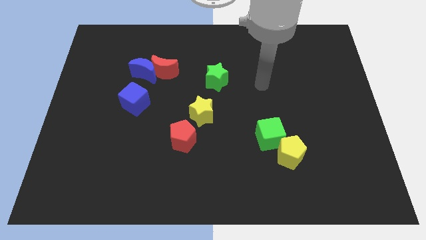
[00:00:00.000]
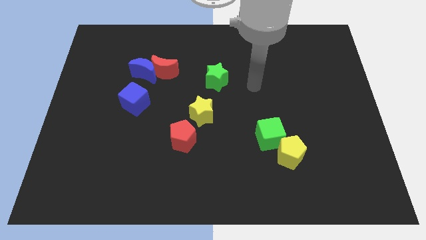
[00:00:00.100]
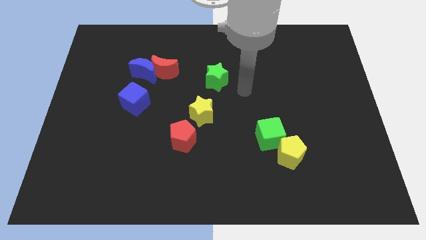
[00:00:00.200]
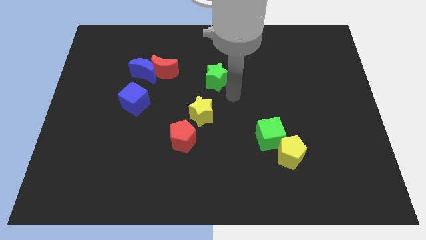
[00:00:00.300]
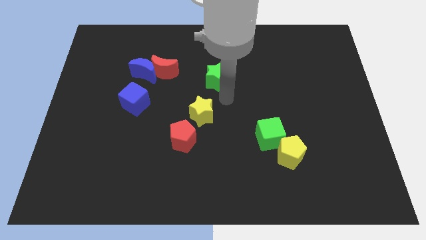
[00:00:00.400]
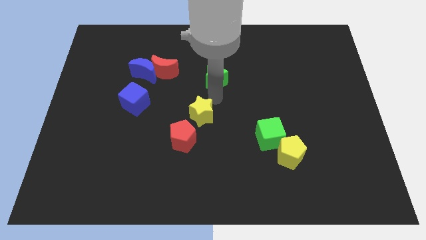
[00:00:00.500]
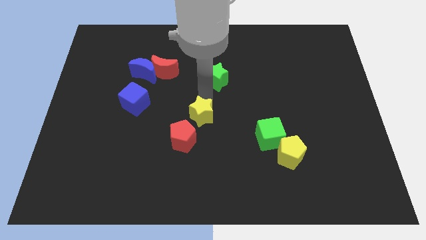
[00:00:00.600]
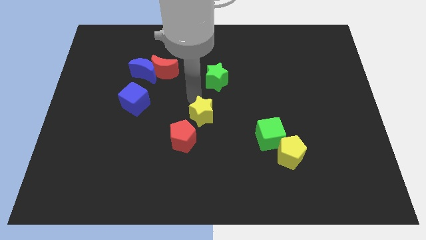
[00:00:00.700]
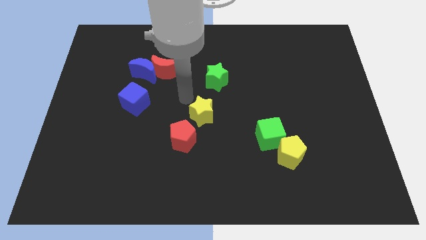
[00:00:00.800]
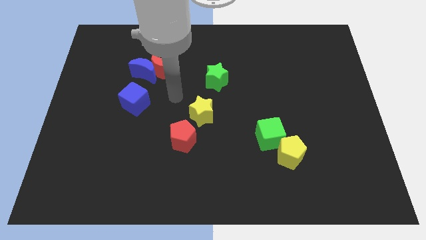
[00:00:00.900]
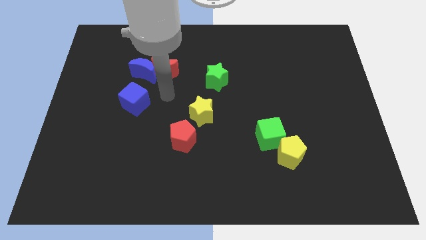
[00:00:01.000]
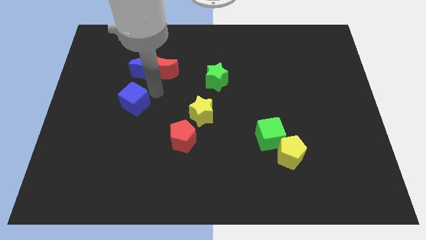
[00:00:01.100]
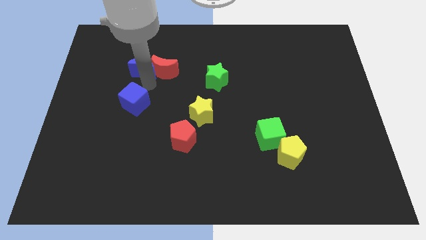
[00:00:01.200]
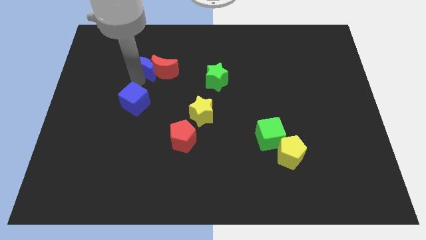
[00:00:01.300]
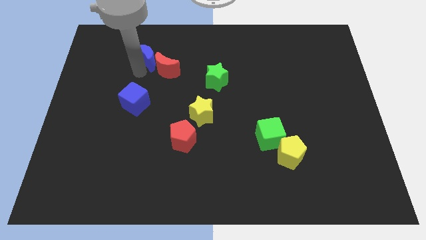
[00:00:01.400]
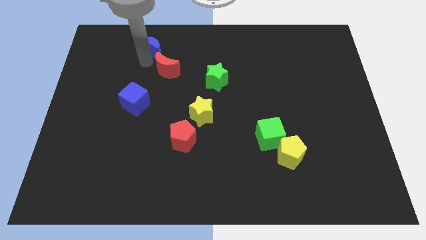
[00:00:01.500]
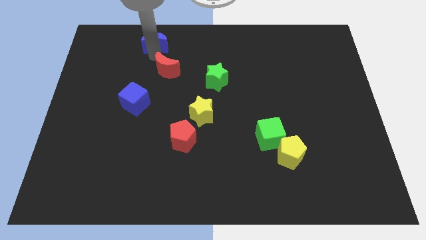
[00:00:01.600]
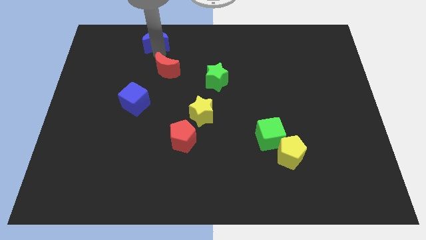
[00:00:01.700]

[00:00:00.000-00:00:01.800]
move the red moon away from the blue moon

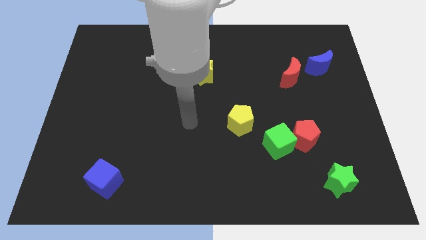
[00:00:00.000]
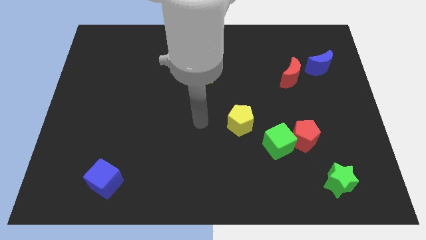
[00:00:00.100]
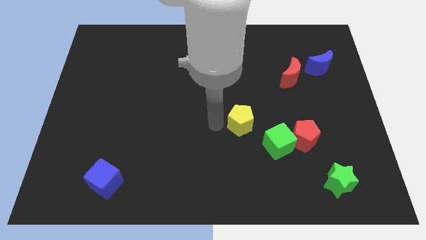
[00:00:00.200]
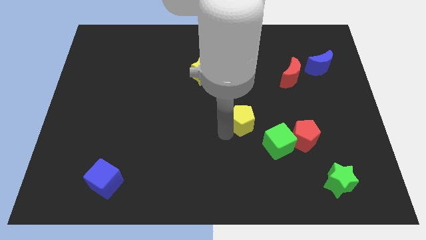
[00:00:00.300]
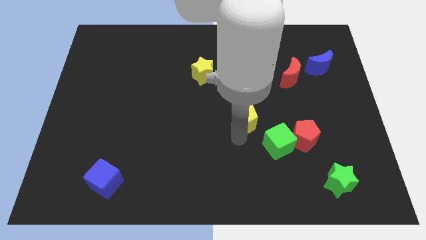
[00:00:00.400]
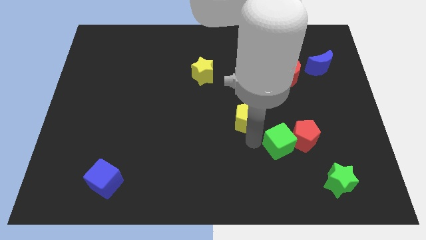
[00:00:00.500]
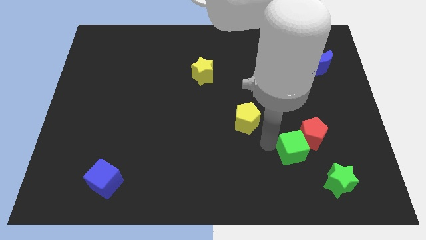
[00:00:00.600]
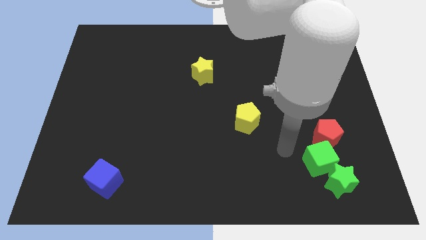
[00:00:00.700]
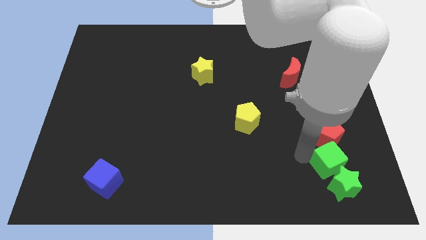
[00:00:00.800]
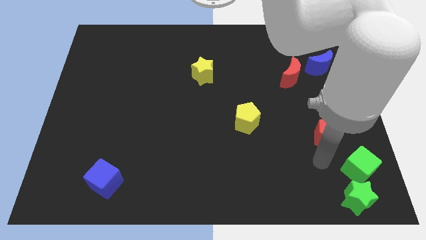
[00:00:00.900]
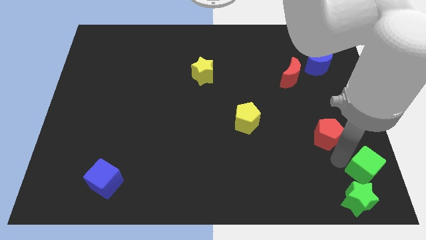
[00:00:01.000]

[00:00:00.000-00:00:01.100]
move the red pentagon away from the green cube

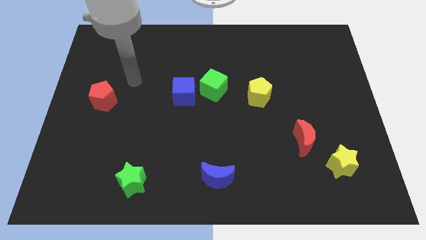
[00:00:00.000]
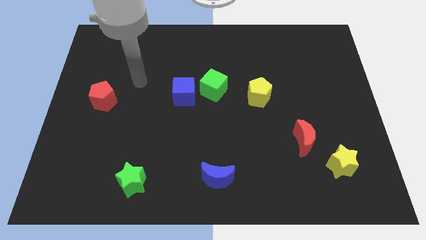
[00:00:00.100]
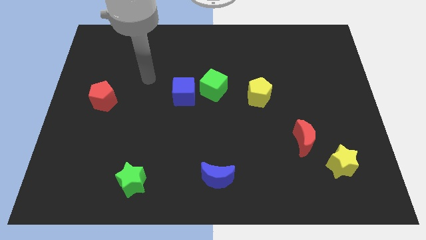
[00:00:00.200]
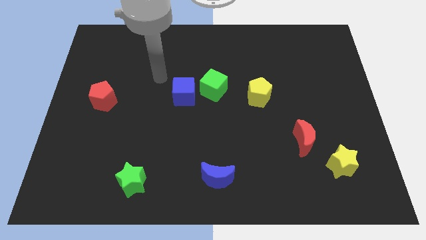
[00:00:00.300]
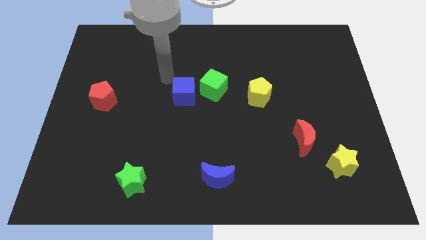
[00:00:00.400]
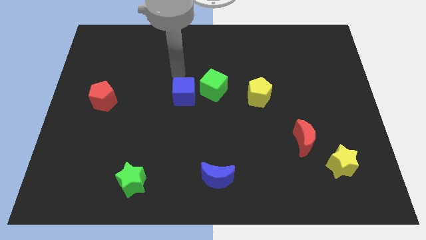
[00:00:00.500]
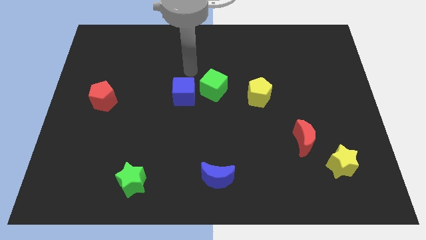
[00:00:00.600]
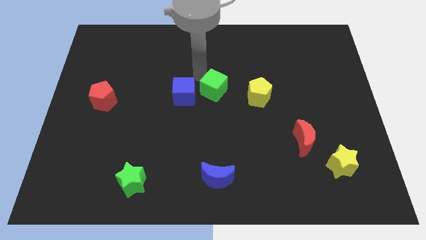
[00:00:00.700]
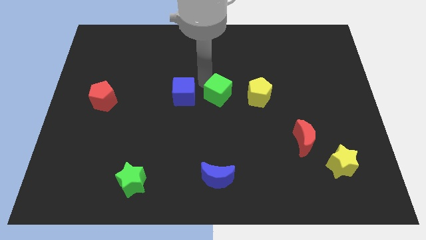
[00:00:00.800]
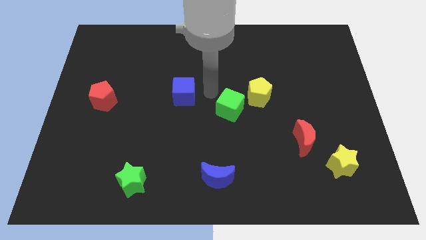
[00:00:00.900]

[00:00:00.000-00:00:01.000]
separate the blue cube from the green cube

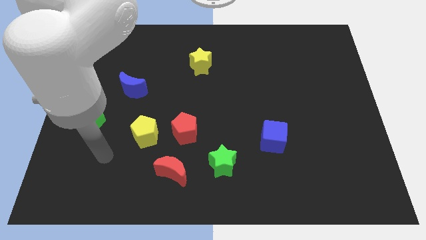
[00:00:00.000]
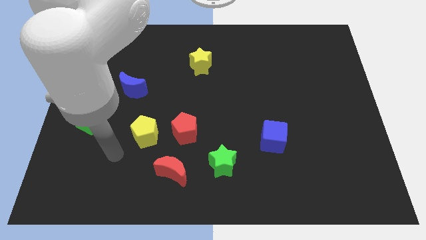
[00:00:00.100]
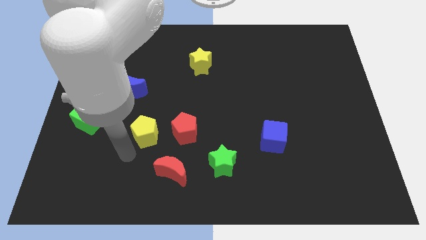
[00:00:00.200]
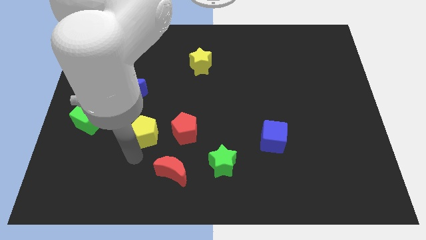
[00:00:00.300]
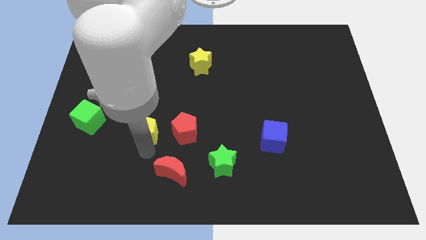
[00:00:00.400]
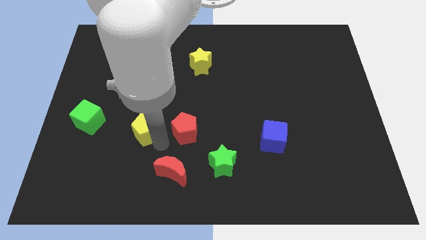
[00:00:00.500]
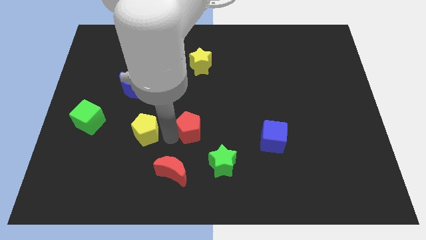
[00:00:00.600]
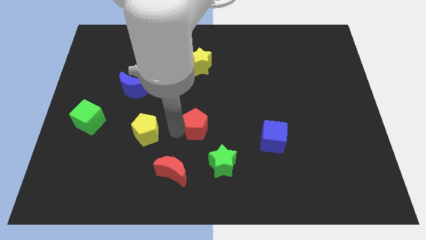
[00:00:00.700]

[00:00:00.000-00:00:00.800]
separate the yellow pentagon from the red pentagon

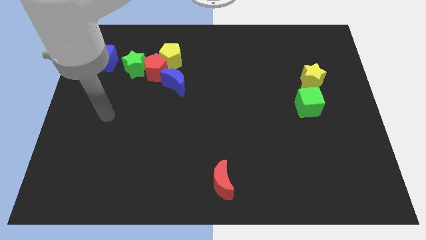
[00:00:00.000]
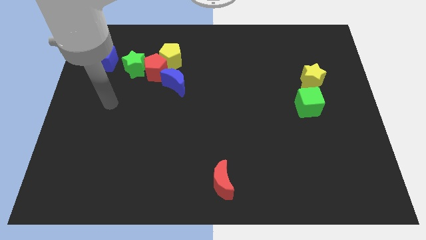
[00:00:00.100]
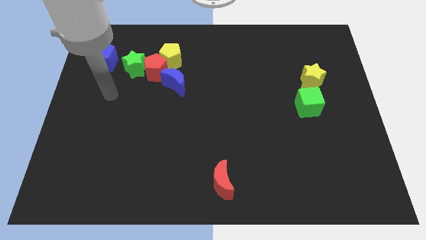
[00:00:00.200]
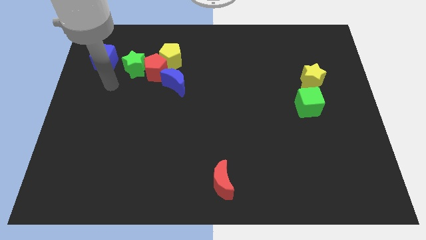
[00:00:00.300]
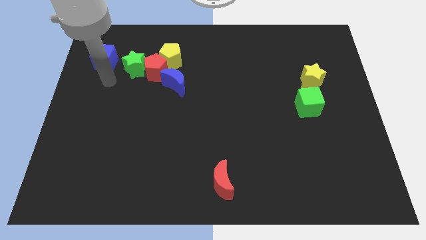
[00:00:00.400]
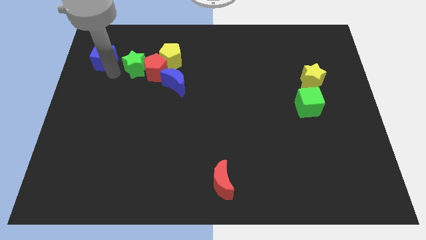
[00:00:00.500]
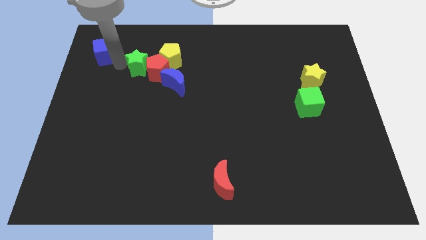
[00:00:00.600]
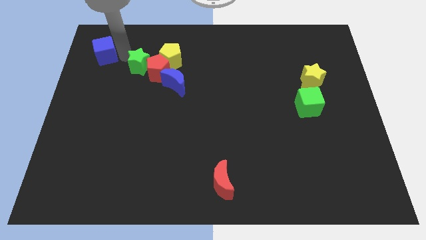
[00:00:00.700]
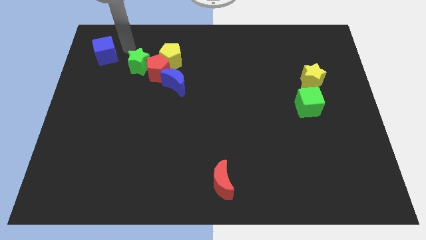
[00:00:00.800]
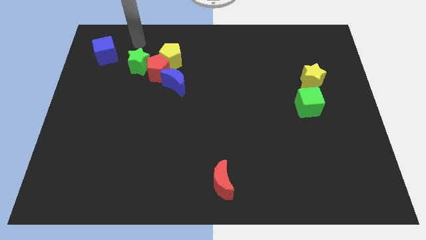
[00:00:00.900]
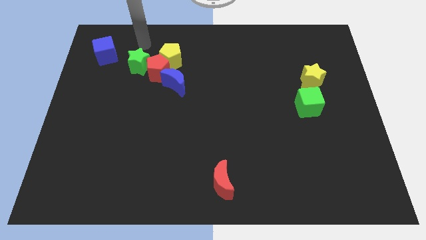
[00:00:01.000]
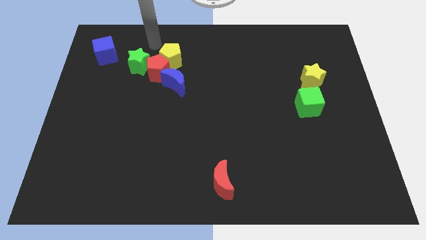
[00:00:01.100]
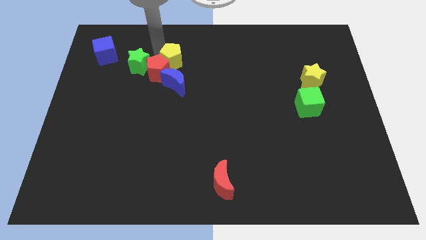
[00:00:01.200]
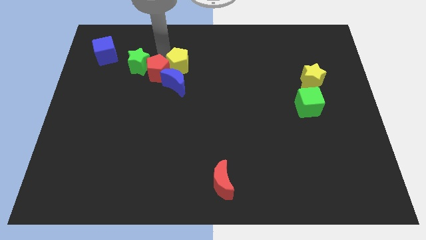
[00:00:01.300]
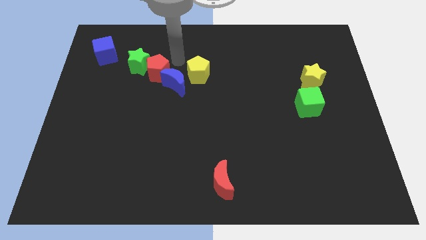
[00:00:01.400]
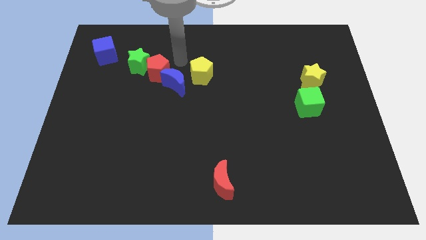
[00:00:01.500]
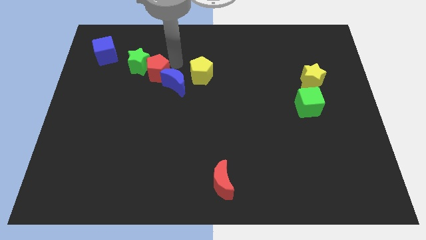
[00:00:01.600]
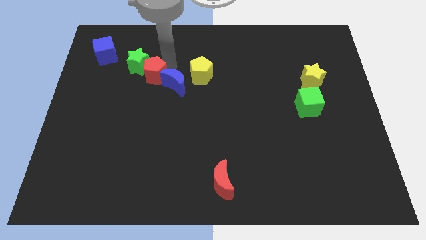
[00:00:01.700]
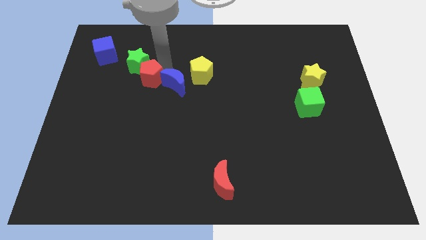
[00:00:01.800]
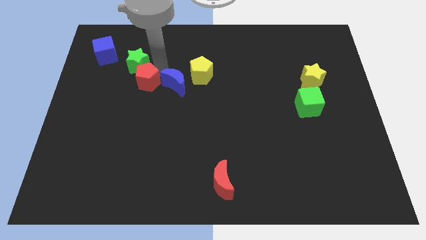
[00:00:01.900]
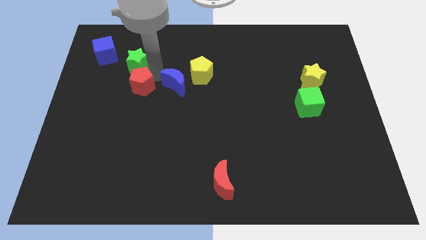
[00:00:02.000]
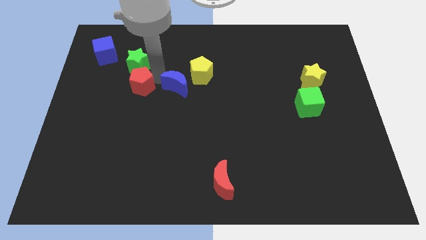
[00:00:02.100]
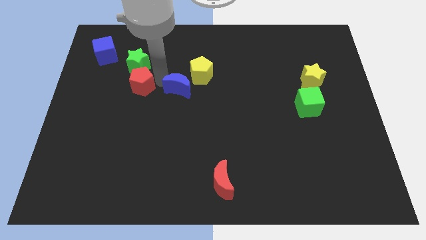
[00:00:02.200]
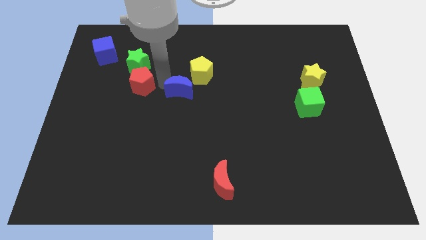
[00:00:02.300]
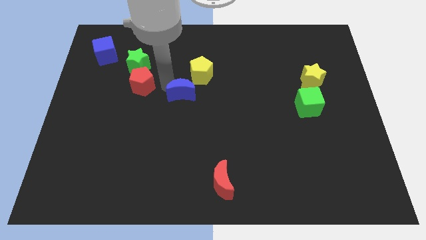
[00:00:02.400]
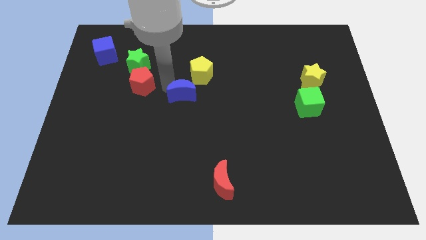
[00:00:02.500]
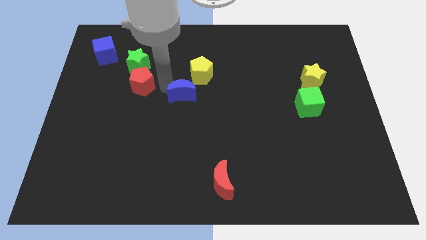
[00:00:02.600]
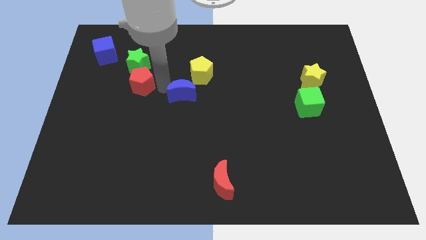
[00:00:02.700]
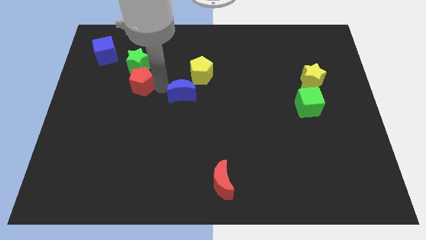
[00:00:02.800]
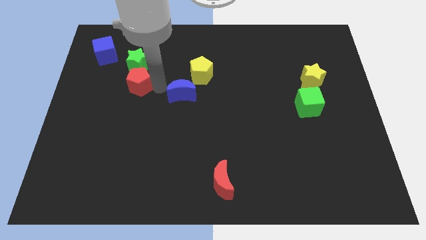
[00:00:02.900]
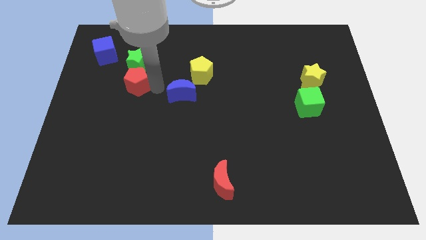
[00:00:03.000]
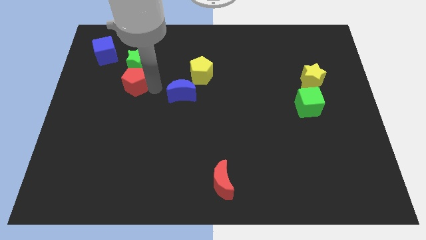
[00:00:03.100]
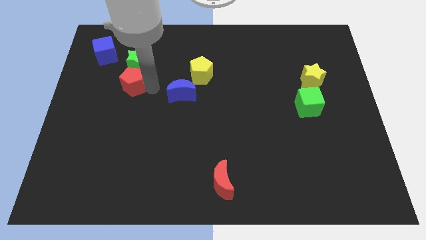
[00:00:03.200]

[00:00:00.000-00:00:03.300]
pull the red pentagon apart from the yellow pentagon, green star, and blue moon

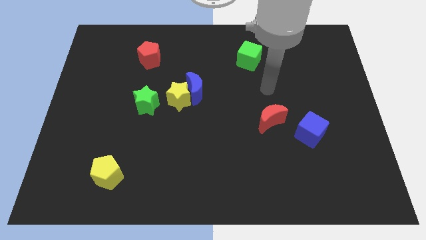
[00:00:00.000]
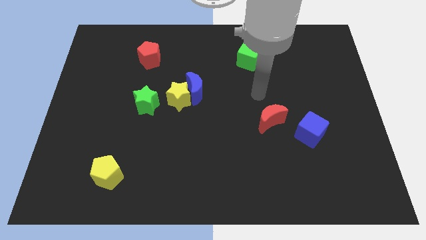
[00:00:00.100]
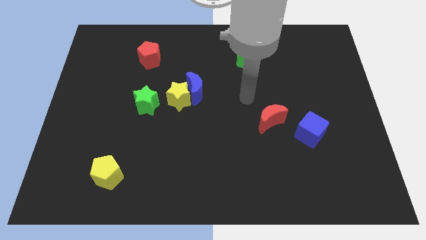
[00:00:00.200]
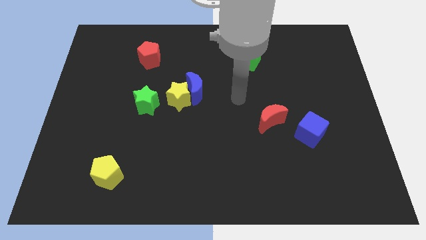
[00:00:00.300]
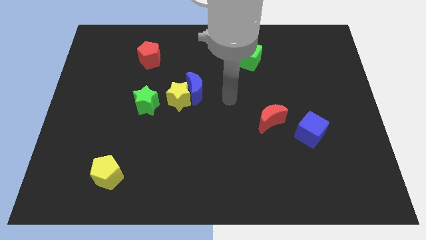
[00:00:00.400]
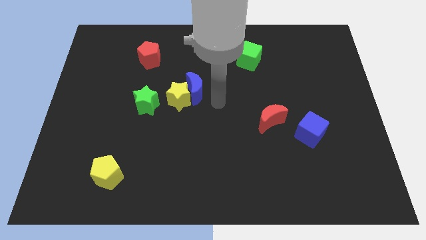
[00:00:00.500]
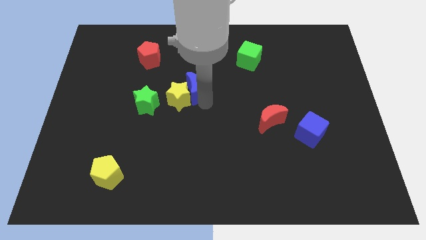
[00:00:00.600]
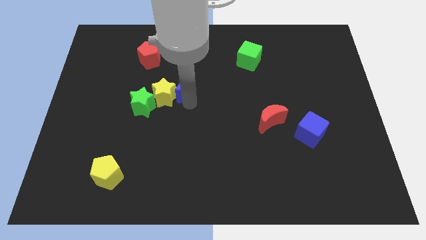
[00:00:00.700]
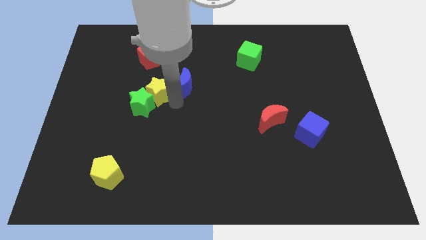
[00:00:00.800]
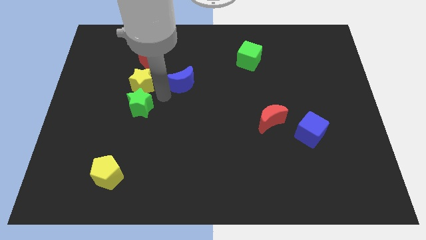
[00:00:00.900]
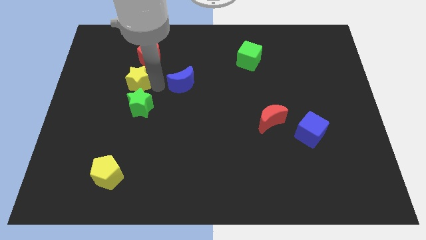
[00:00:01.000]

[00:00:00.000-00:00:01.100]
pull the blue moon apart from the yellow star
